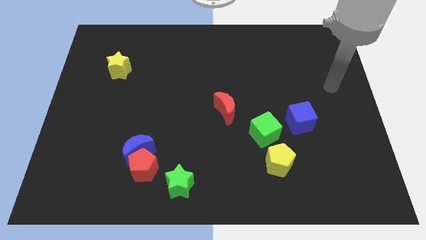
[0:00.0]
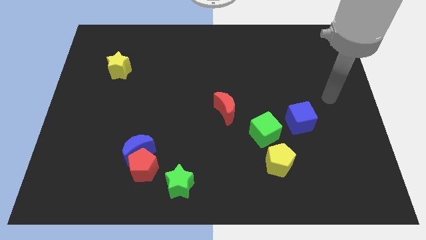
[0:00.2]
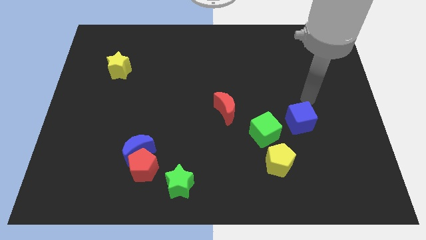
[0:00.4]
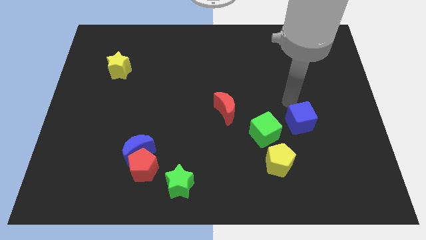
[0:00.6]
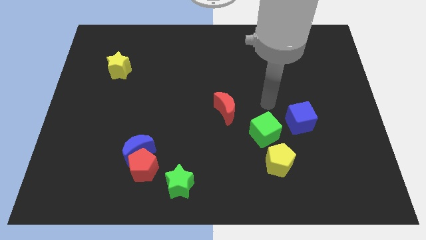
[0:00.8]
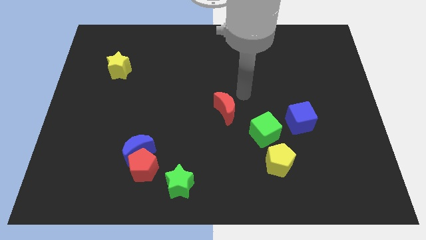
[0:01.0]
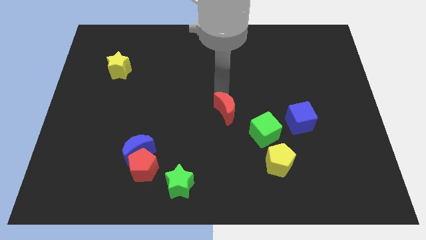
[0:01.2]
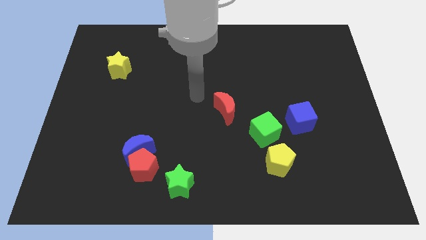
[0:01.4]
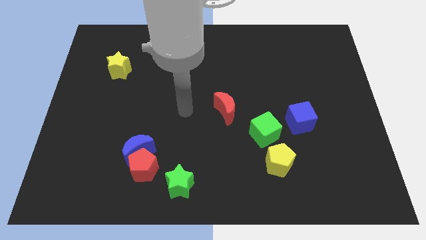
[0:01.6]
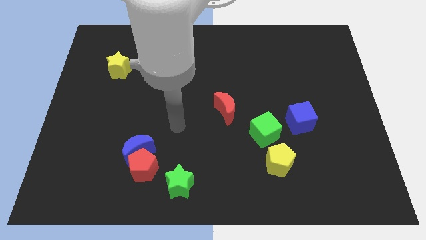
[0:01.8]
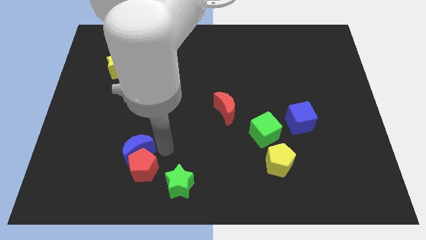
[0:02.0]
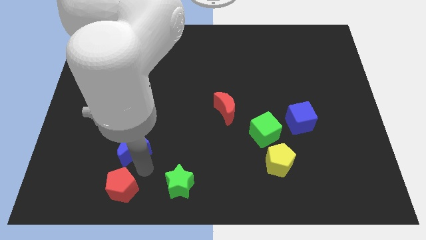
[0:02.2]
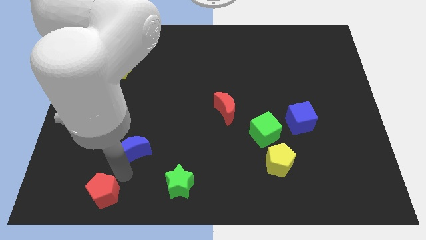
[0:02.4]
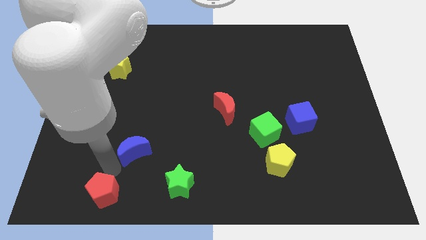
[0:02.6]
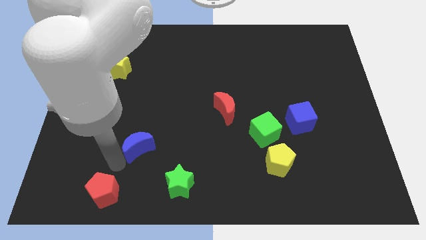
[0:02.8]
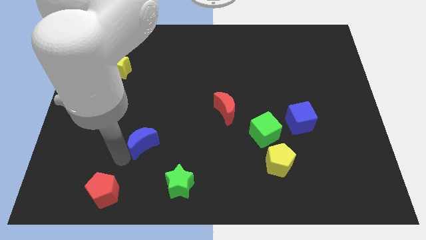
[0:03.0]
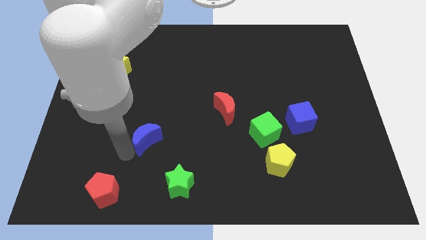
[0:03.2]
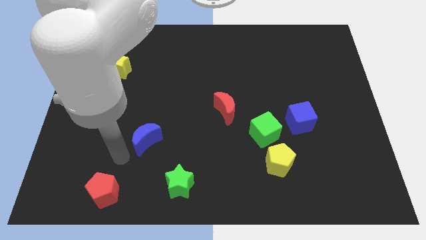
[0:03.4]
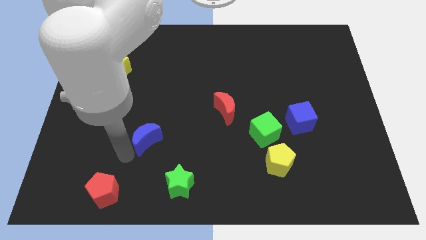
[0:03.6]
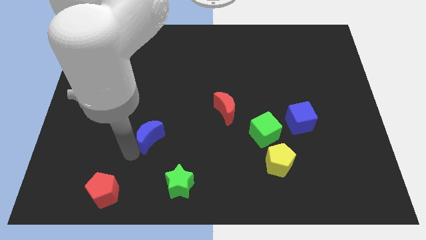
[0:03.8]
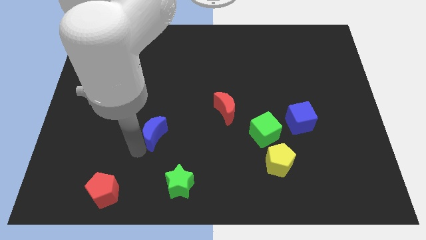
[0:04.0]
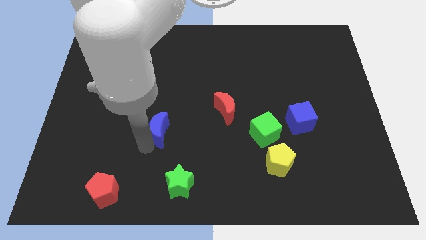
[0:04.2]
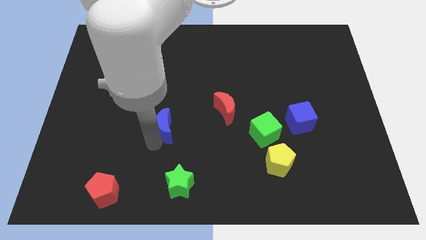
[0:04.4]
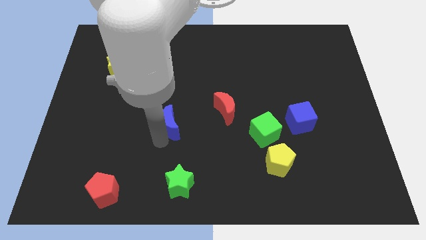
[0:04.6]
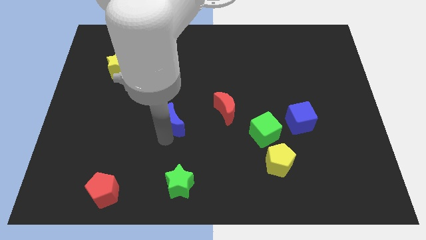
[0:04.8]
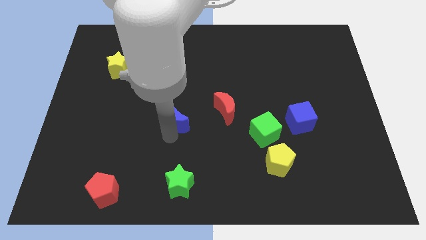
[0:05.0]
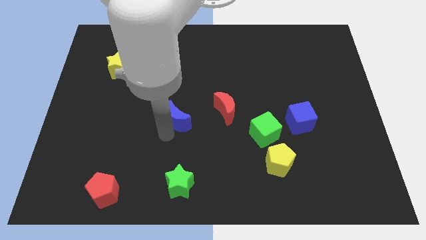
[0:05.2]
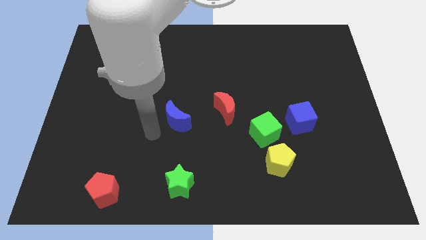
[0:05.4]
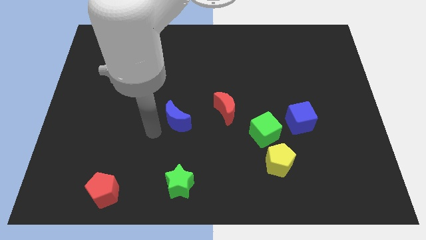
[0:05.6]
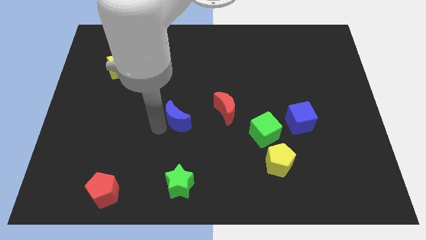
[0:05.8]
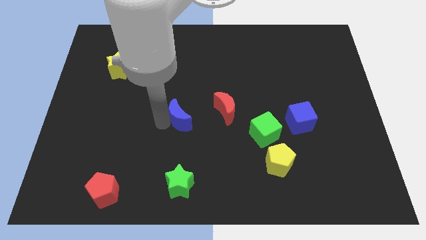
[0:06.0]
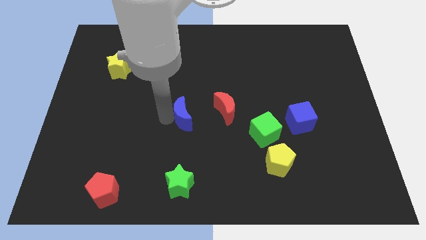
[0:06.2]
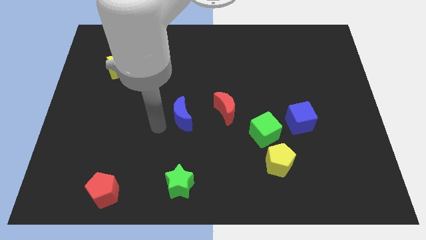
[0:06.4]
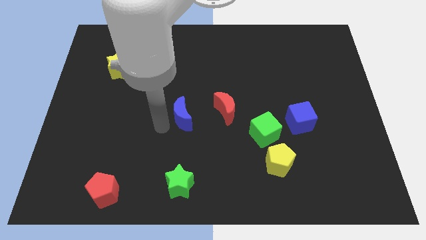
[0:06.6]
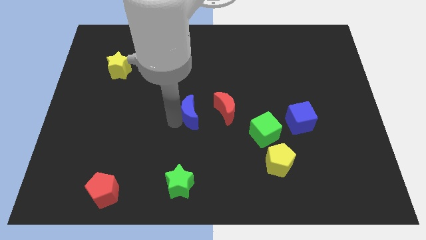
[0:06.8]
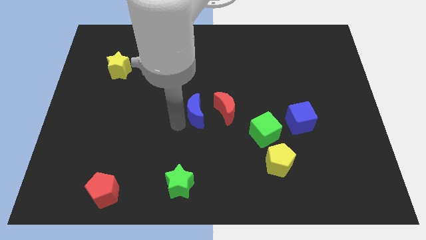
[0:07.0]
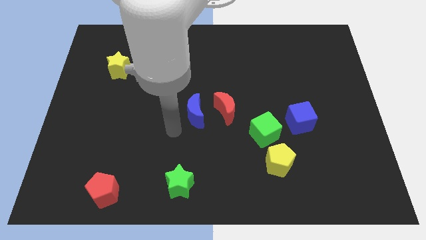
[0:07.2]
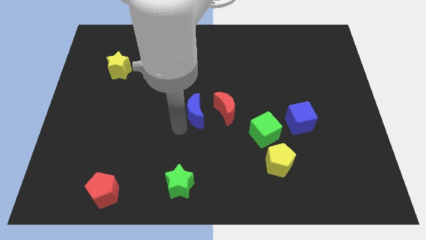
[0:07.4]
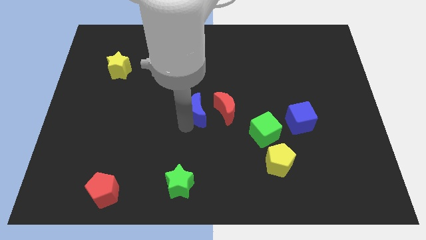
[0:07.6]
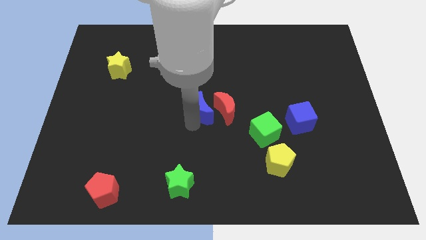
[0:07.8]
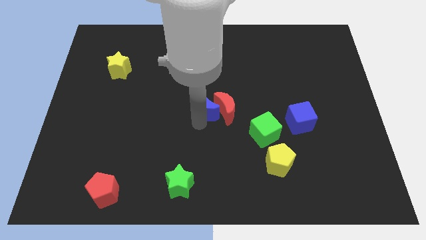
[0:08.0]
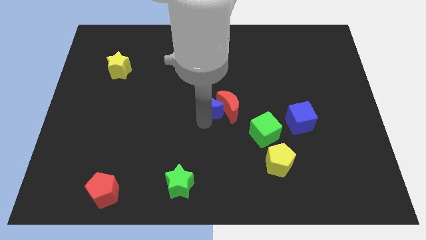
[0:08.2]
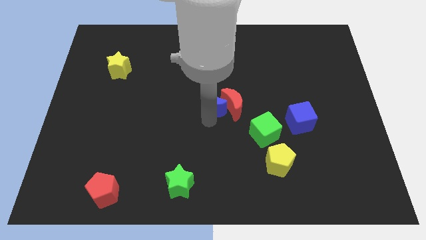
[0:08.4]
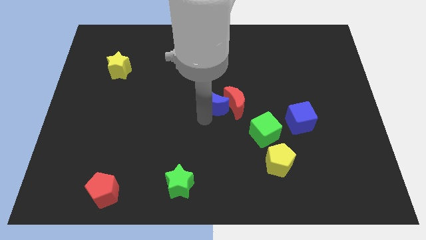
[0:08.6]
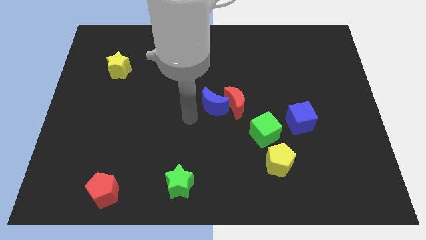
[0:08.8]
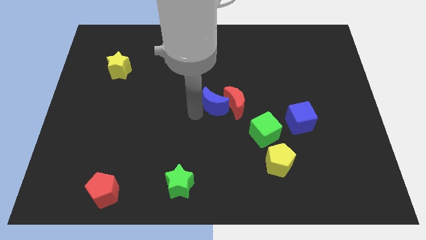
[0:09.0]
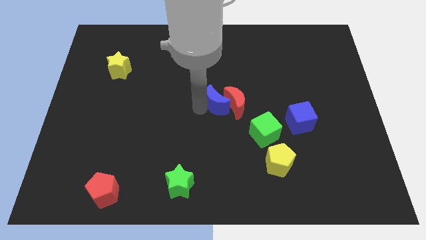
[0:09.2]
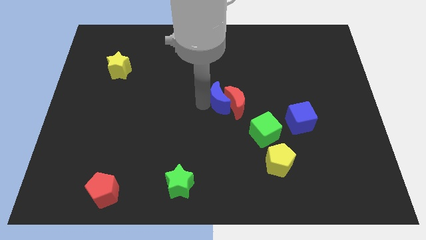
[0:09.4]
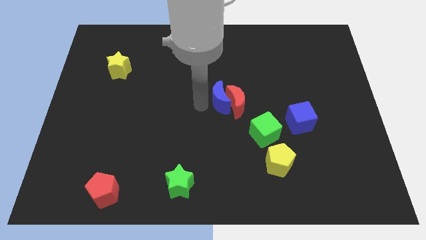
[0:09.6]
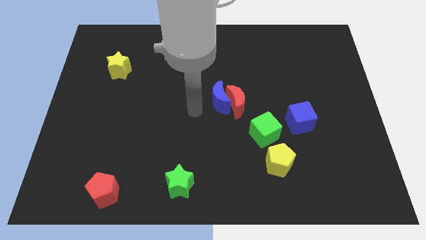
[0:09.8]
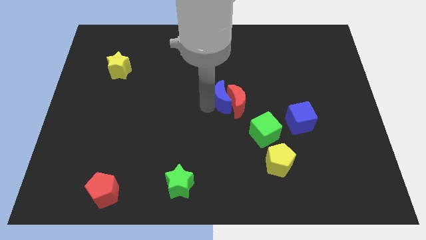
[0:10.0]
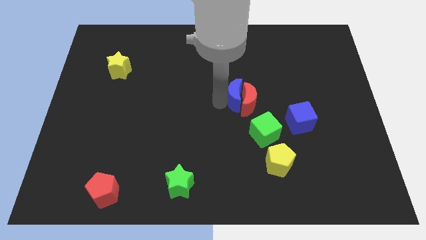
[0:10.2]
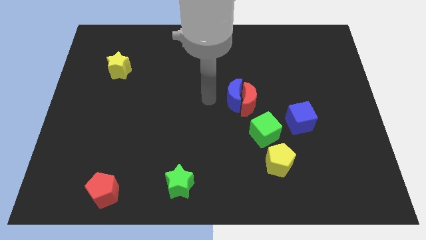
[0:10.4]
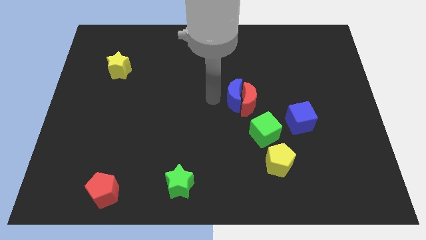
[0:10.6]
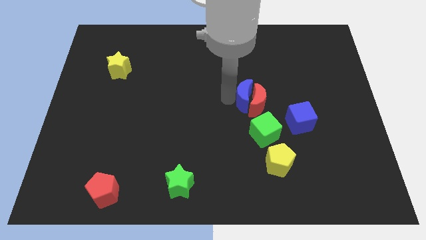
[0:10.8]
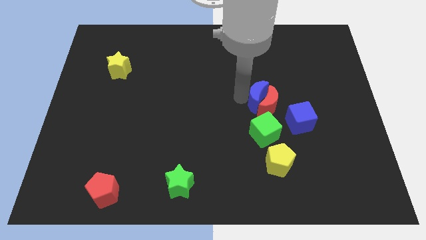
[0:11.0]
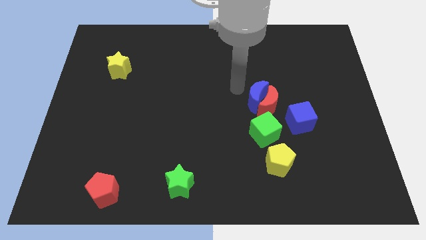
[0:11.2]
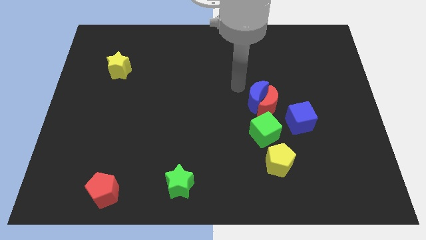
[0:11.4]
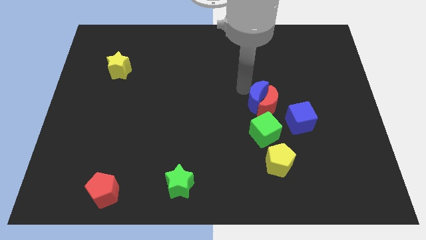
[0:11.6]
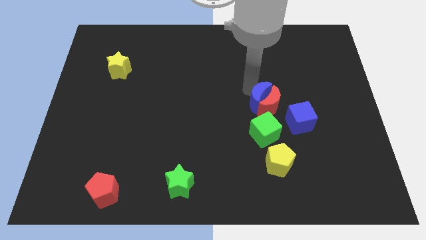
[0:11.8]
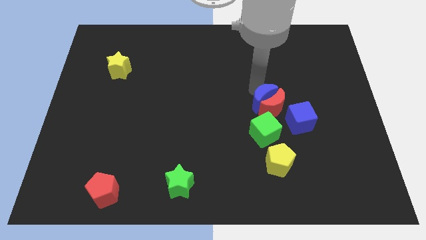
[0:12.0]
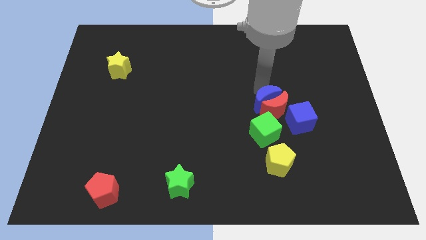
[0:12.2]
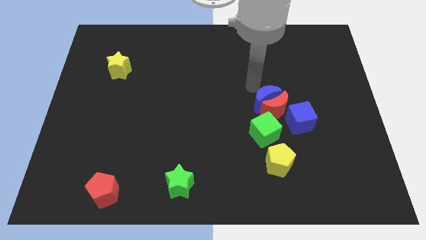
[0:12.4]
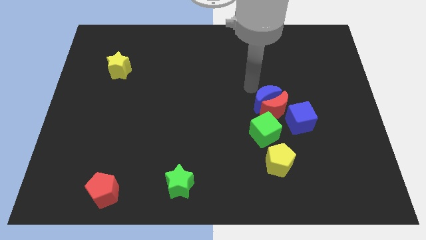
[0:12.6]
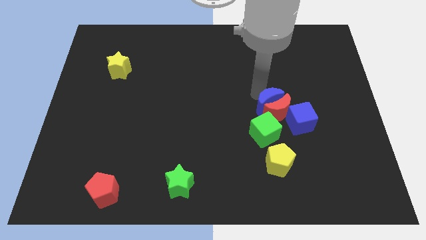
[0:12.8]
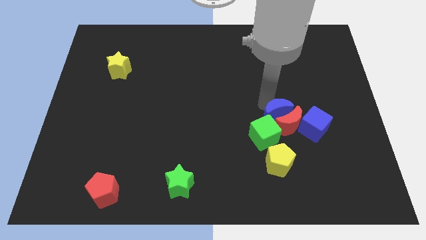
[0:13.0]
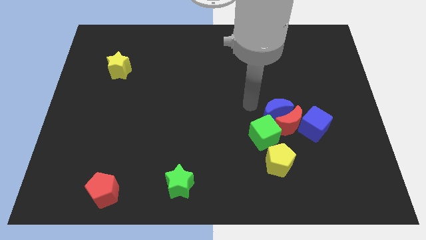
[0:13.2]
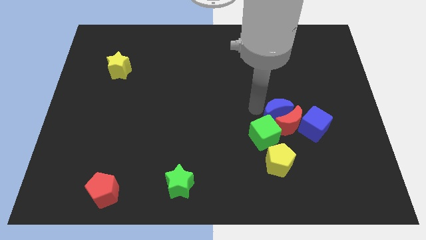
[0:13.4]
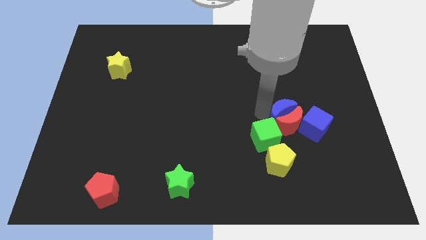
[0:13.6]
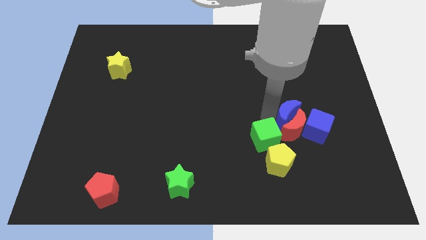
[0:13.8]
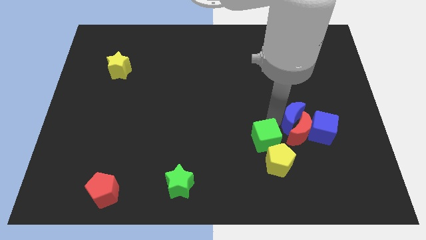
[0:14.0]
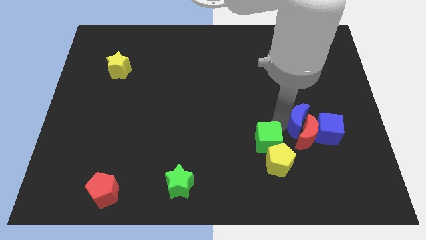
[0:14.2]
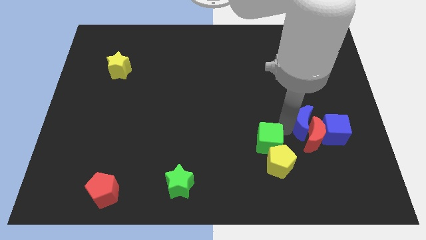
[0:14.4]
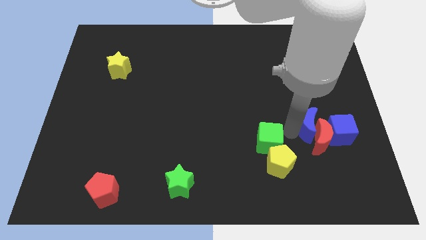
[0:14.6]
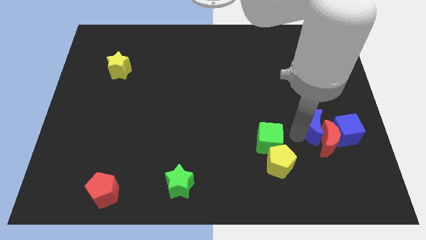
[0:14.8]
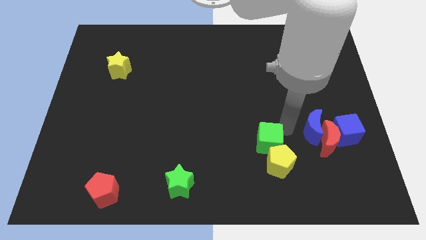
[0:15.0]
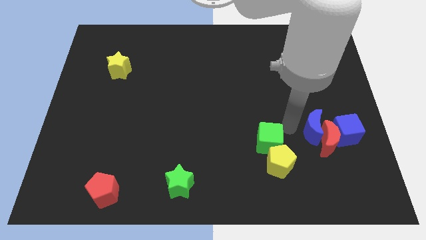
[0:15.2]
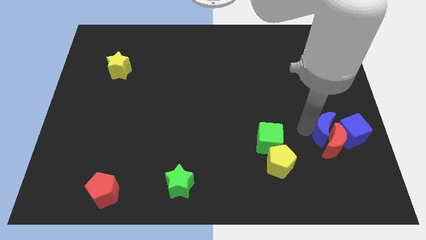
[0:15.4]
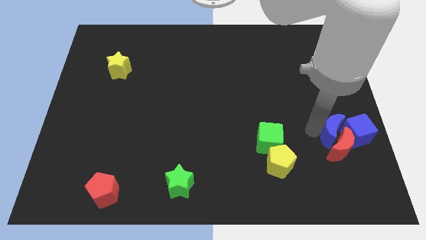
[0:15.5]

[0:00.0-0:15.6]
move the blue moon close to the blue cube
